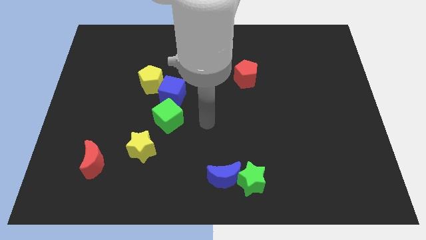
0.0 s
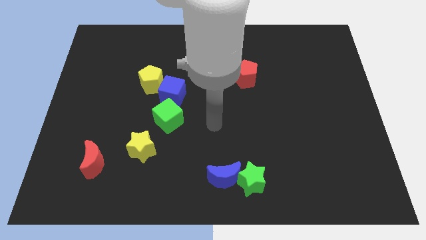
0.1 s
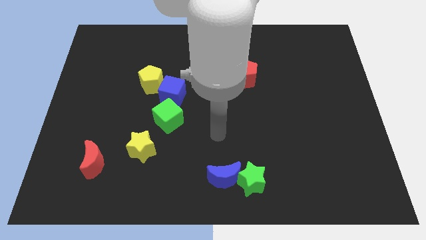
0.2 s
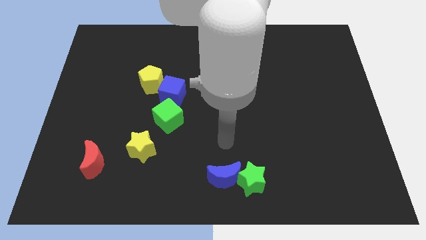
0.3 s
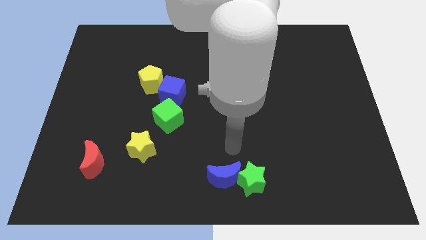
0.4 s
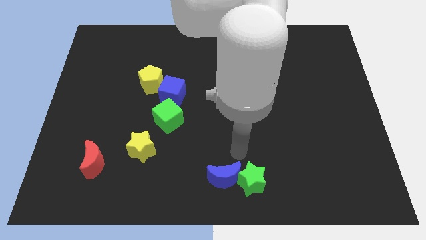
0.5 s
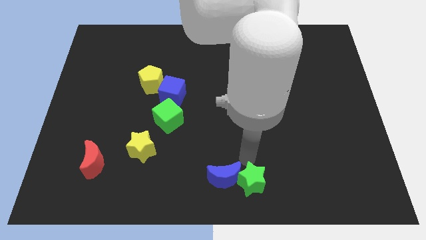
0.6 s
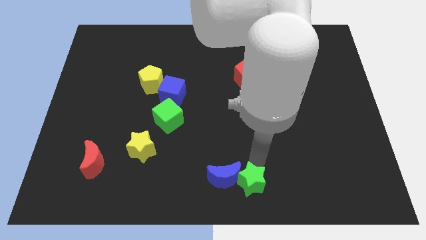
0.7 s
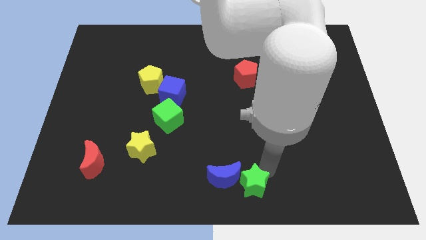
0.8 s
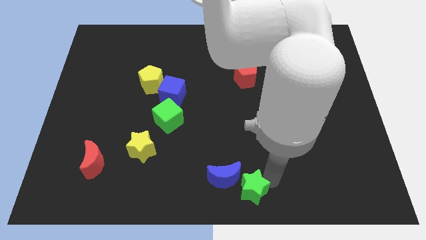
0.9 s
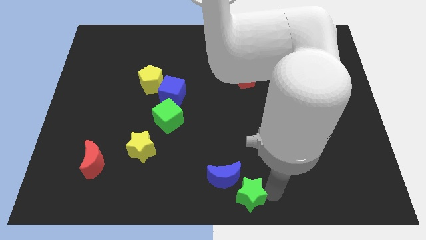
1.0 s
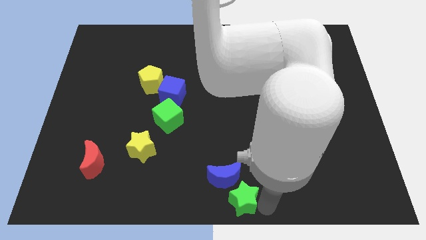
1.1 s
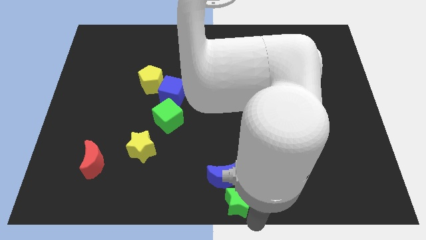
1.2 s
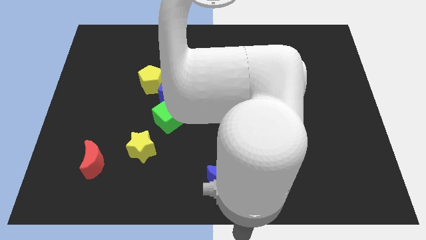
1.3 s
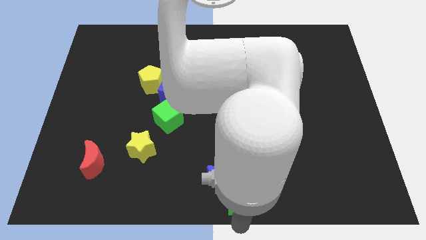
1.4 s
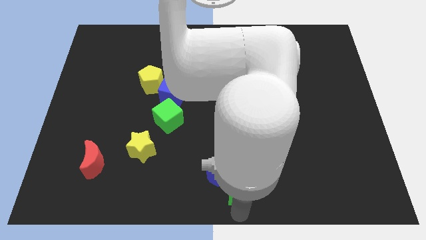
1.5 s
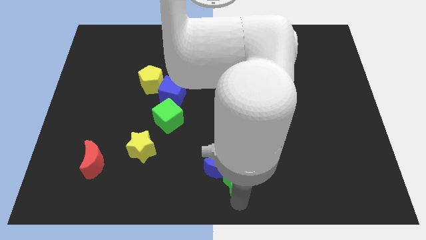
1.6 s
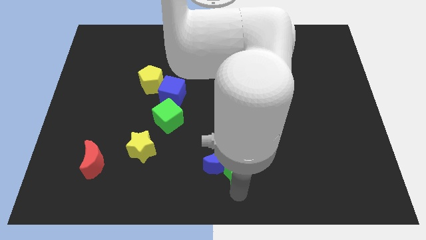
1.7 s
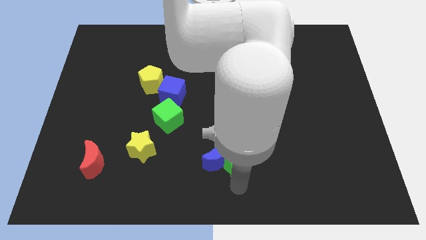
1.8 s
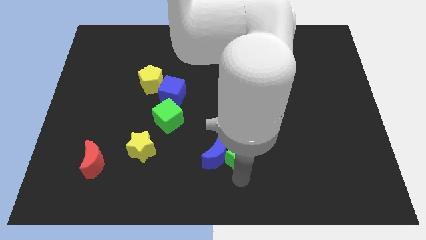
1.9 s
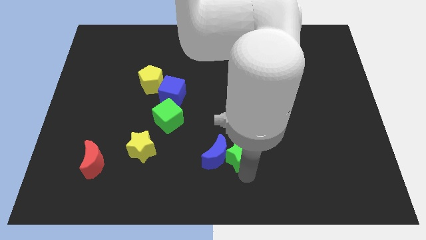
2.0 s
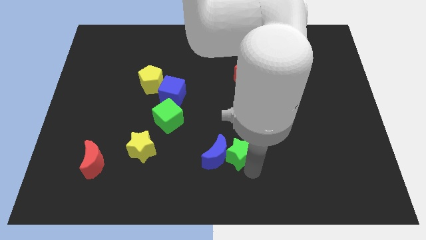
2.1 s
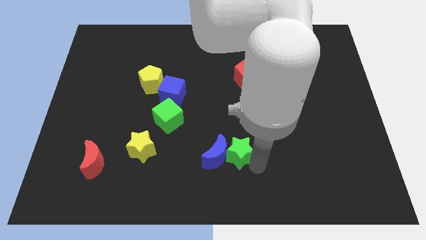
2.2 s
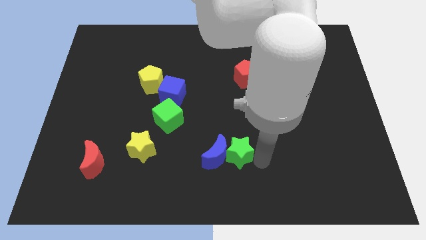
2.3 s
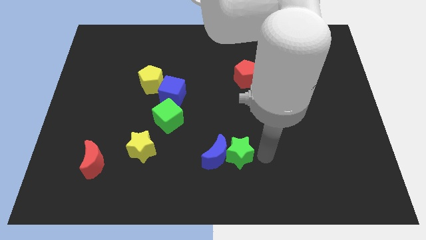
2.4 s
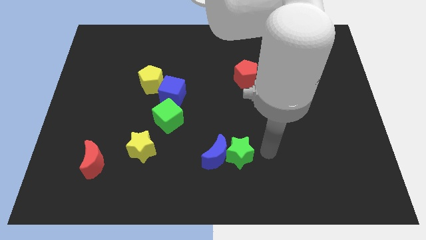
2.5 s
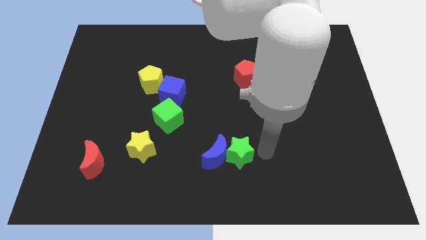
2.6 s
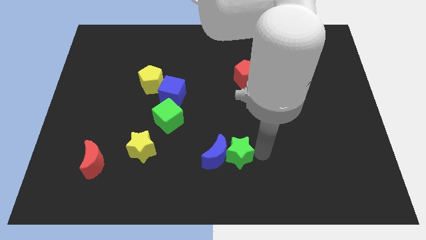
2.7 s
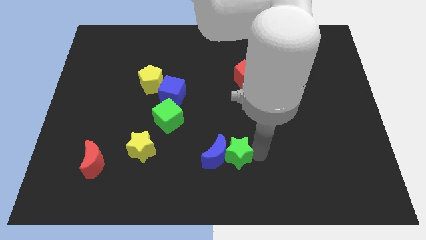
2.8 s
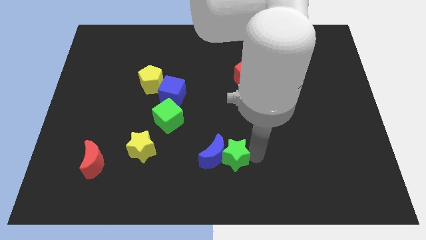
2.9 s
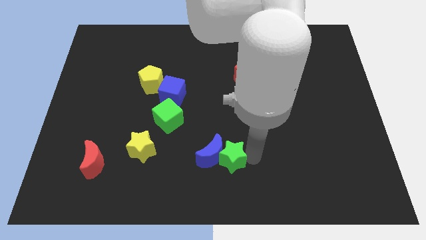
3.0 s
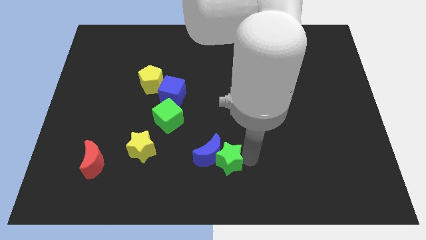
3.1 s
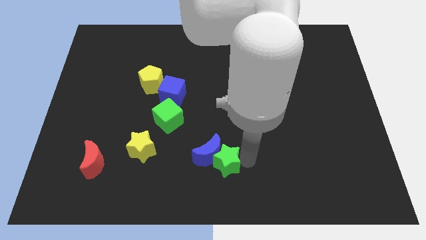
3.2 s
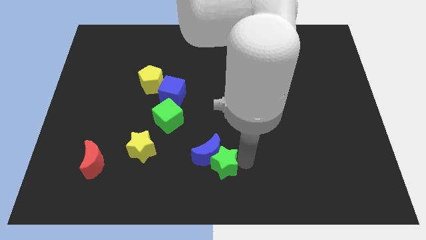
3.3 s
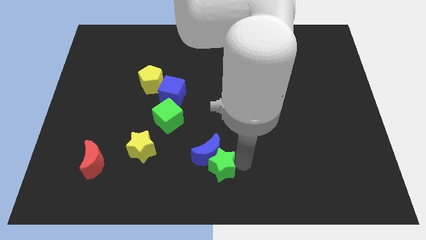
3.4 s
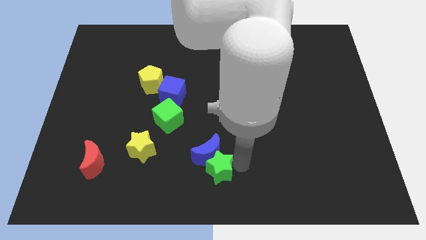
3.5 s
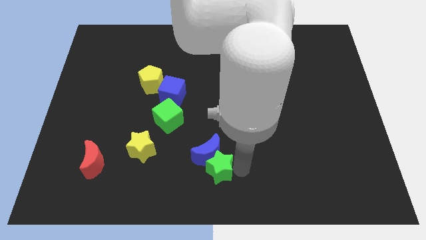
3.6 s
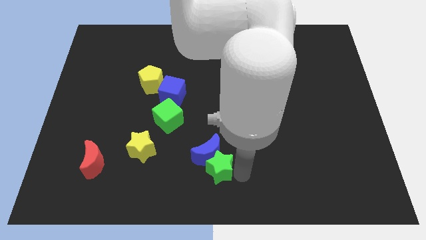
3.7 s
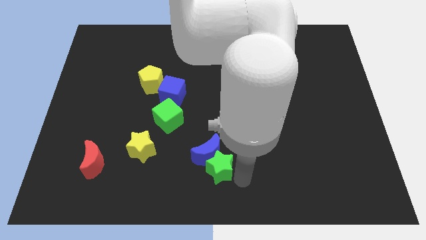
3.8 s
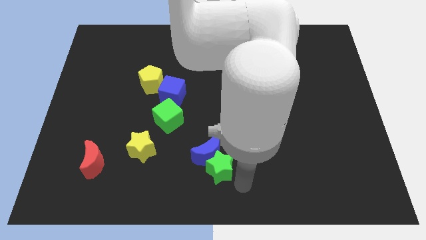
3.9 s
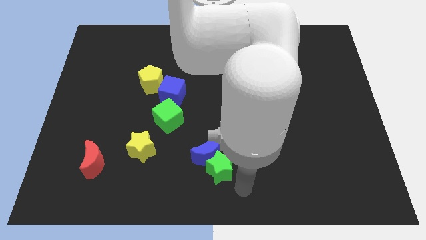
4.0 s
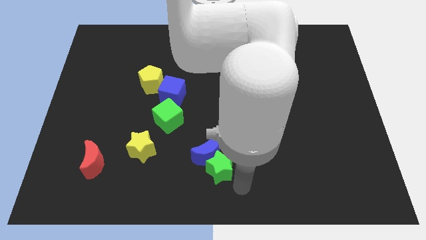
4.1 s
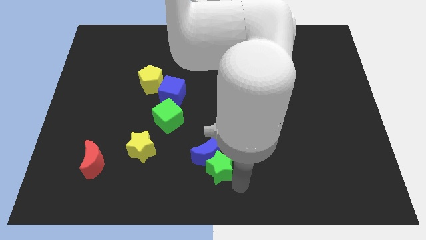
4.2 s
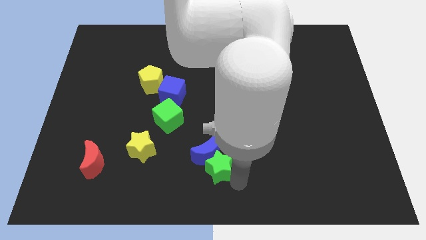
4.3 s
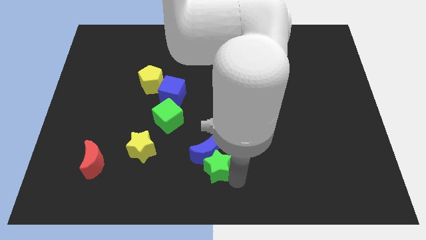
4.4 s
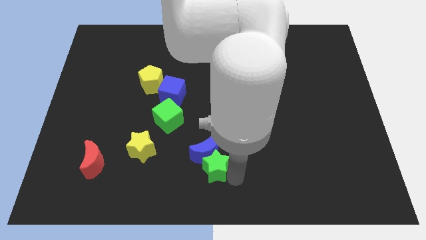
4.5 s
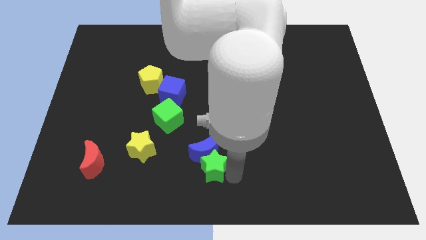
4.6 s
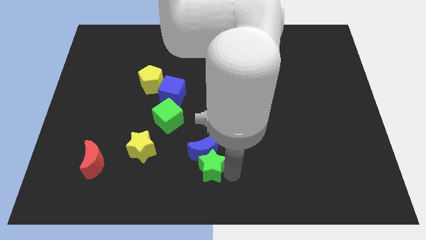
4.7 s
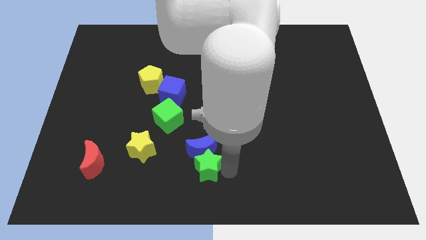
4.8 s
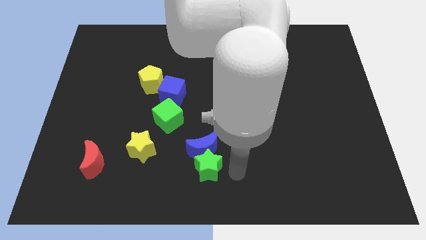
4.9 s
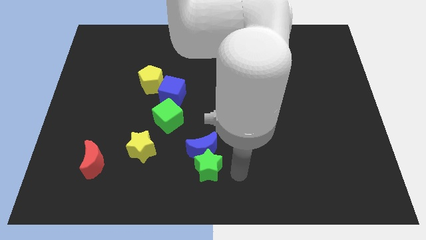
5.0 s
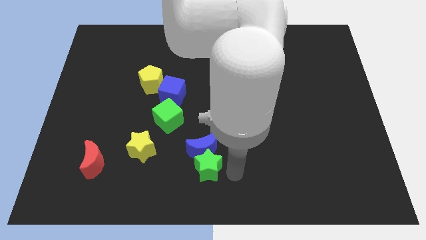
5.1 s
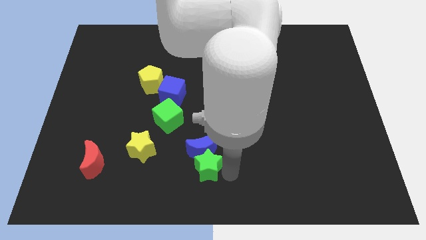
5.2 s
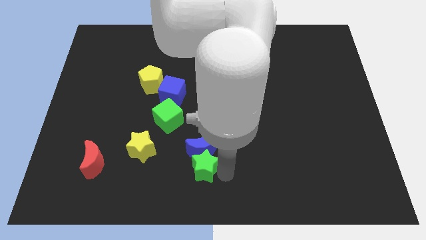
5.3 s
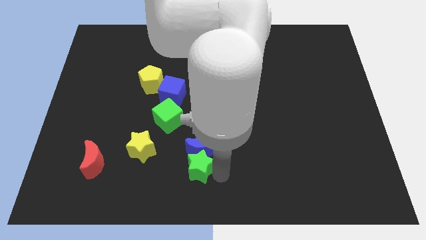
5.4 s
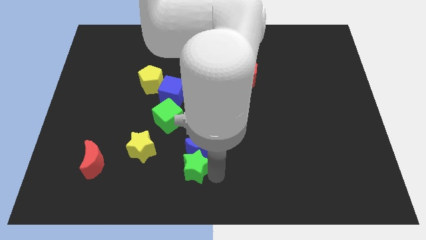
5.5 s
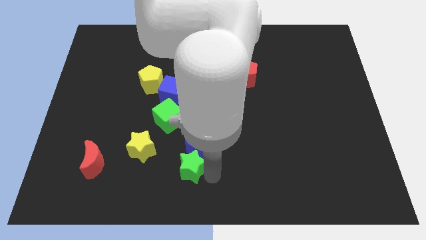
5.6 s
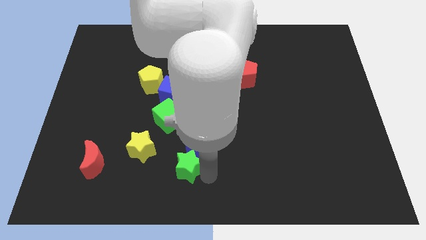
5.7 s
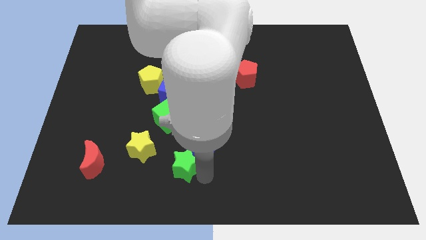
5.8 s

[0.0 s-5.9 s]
move the green star to the bottom side of the green cube

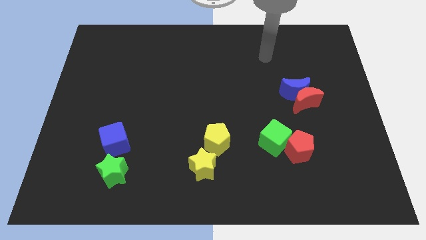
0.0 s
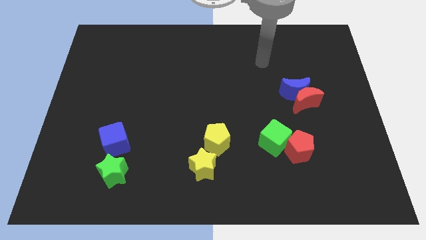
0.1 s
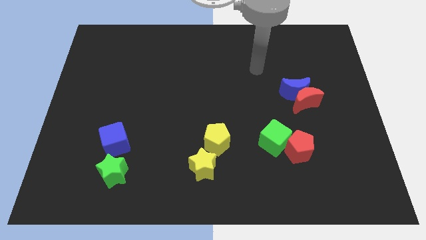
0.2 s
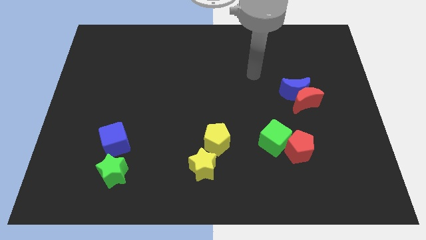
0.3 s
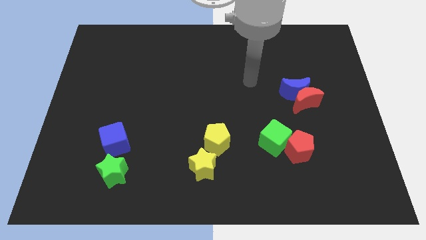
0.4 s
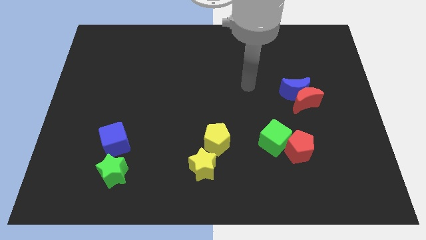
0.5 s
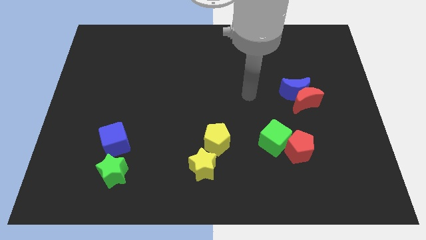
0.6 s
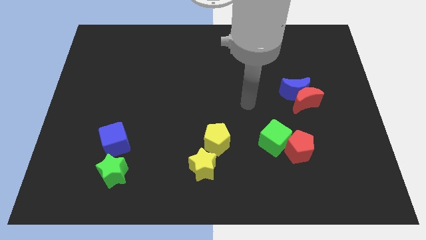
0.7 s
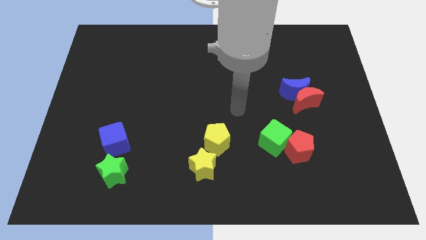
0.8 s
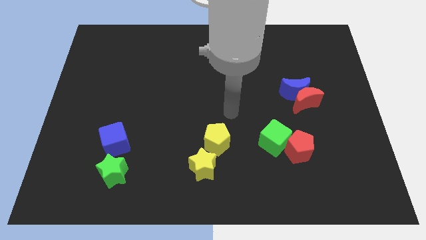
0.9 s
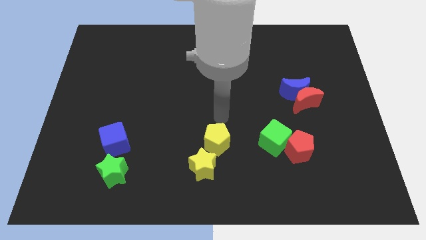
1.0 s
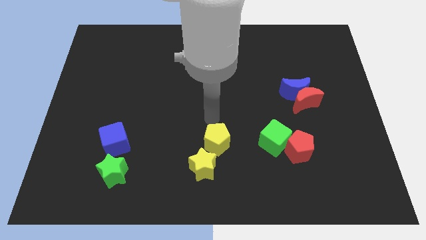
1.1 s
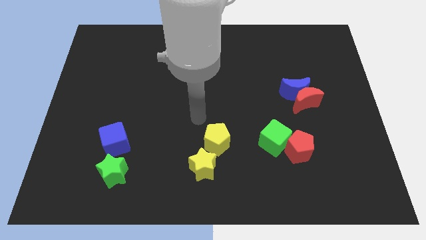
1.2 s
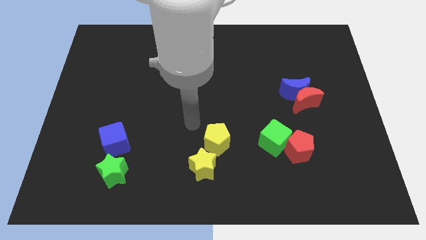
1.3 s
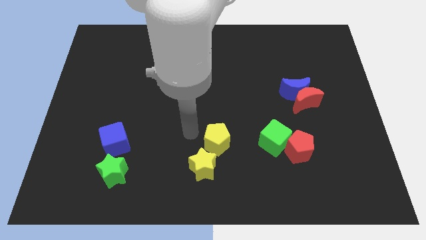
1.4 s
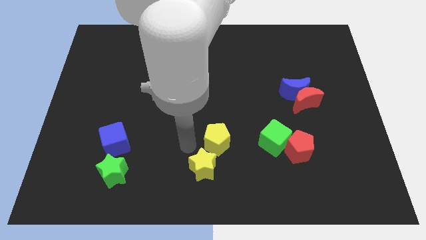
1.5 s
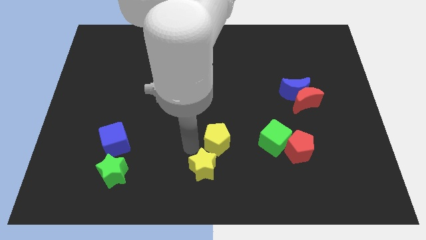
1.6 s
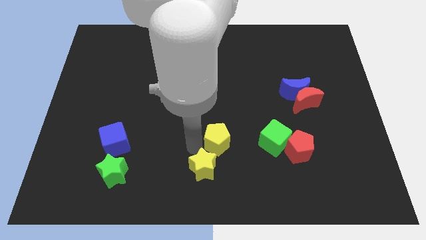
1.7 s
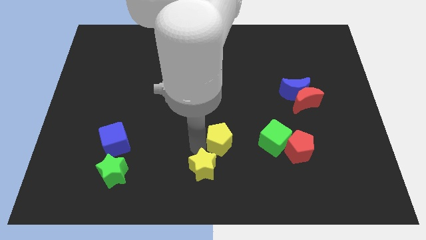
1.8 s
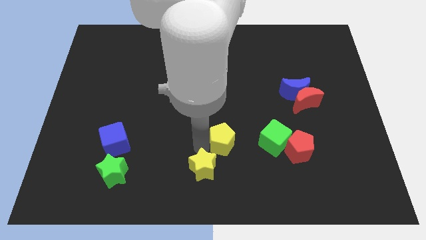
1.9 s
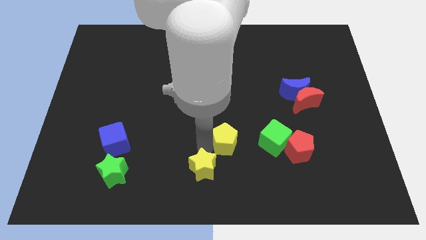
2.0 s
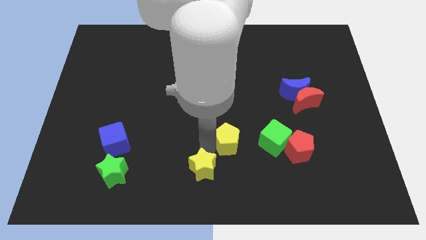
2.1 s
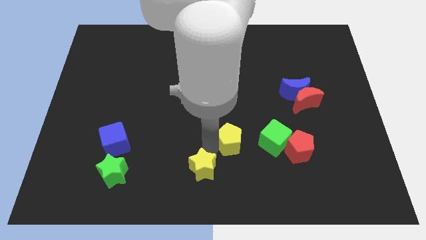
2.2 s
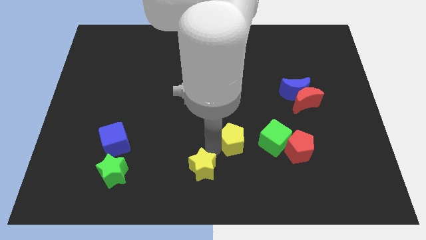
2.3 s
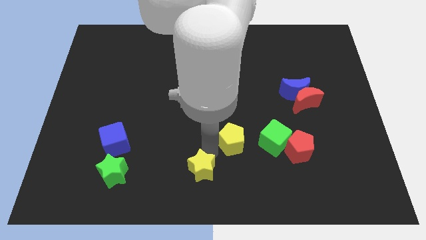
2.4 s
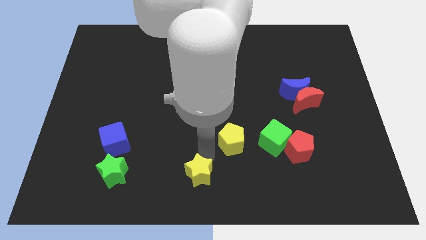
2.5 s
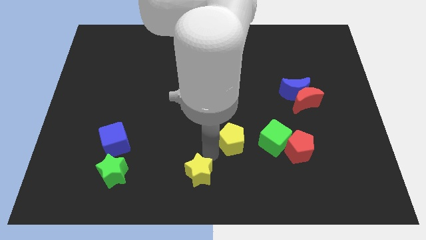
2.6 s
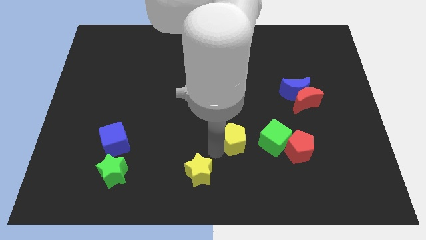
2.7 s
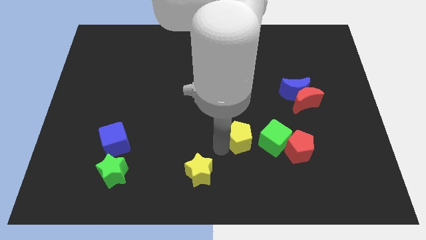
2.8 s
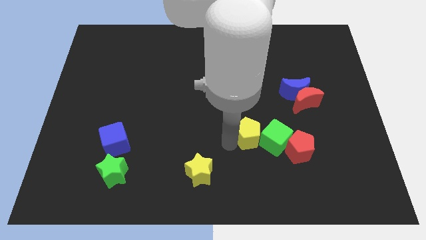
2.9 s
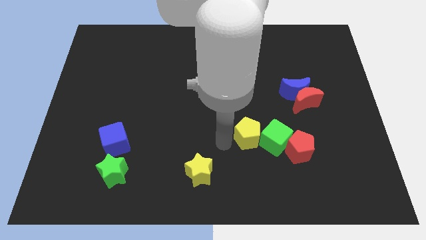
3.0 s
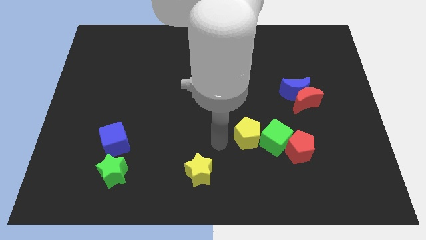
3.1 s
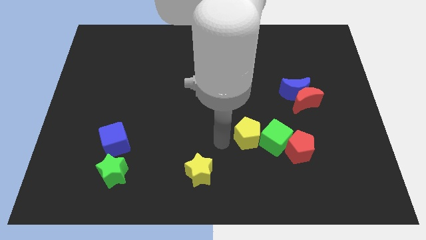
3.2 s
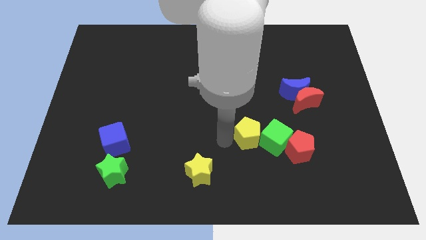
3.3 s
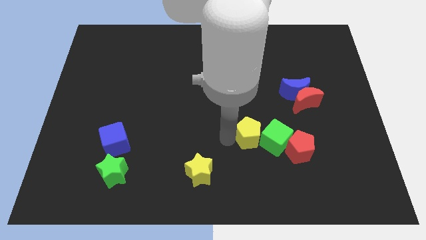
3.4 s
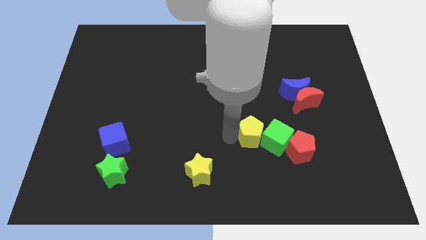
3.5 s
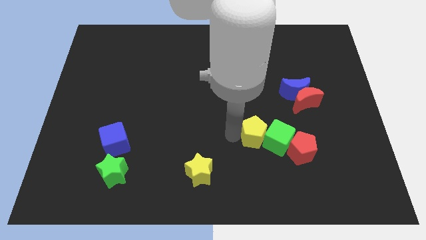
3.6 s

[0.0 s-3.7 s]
move the yellow pentagon to the top left side of the red pentagon
